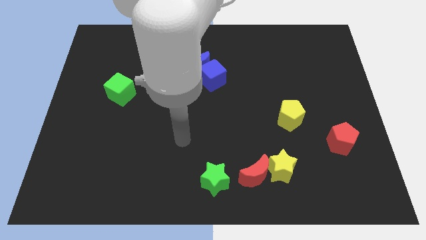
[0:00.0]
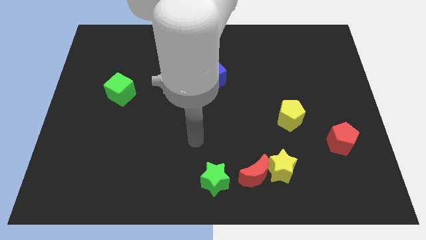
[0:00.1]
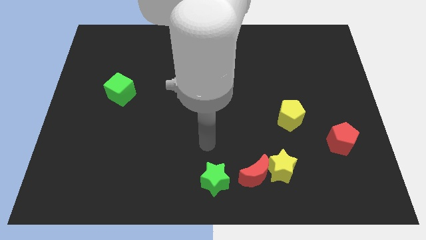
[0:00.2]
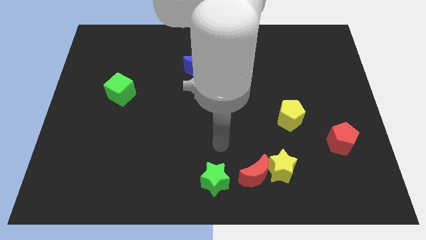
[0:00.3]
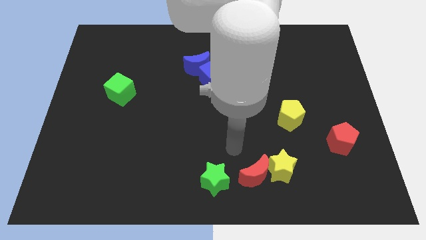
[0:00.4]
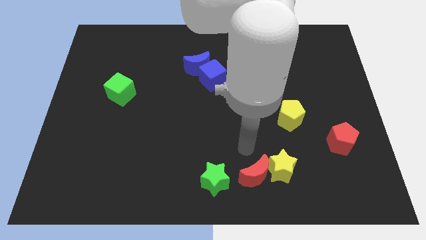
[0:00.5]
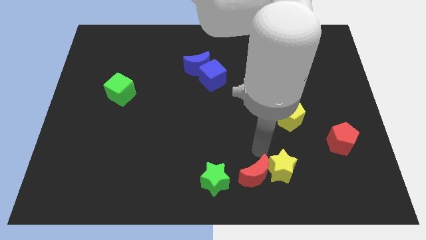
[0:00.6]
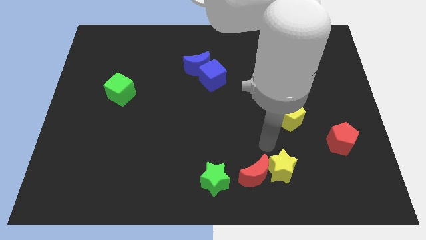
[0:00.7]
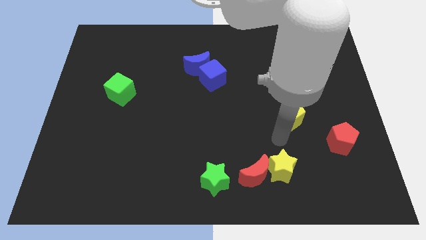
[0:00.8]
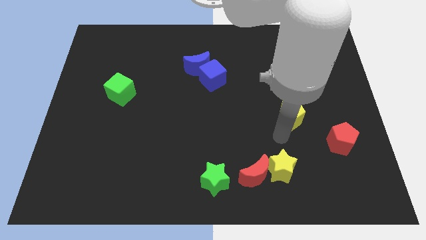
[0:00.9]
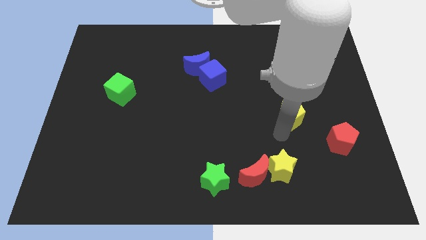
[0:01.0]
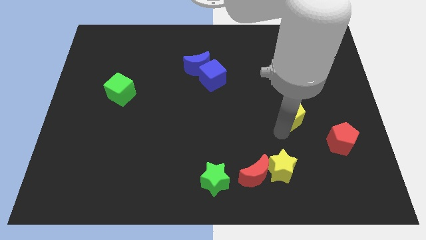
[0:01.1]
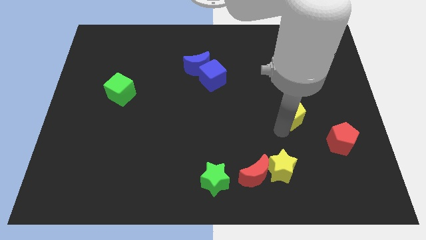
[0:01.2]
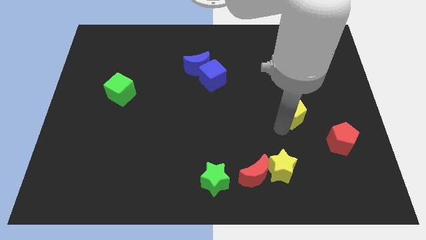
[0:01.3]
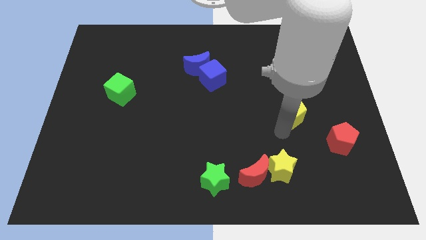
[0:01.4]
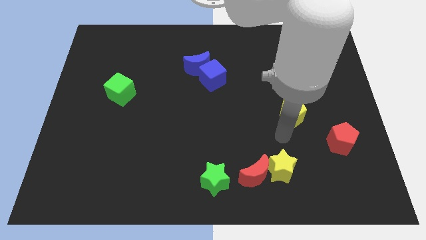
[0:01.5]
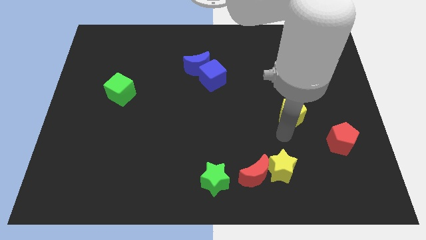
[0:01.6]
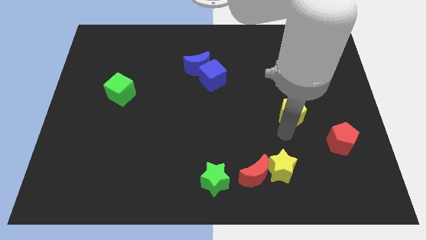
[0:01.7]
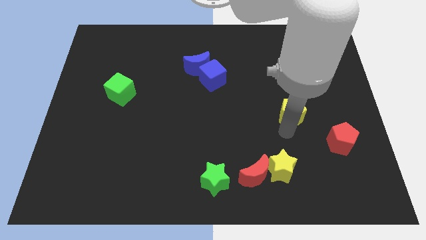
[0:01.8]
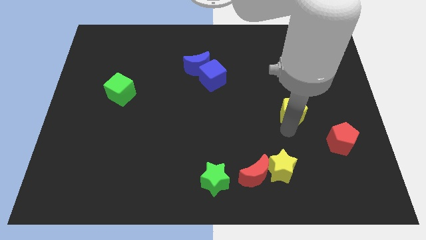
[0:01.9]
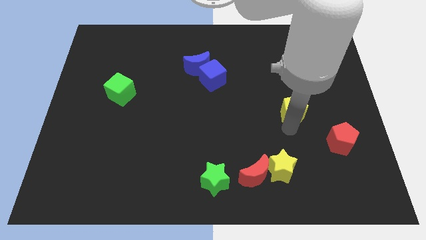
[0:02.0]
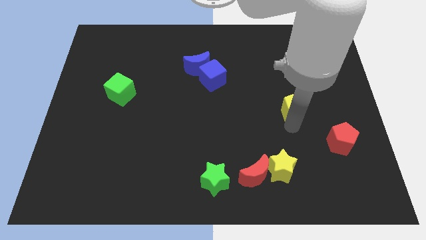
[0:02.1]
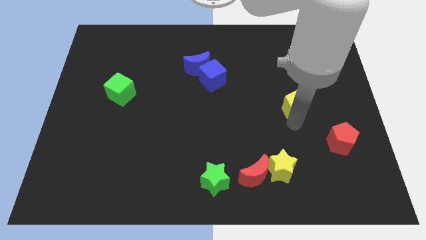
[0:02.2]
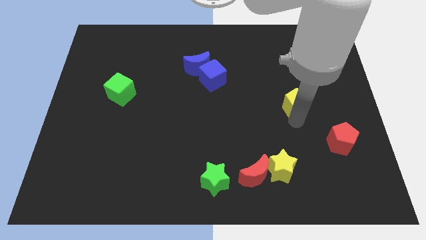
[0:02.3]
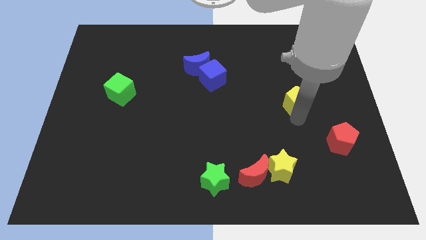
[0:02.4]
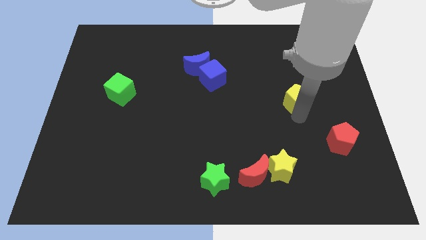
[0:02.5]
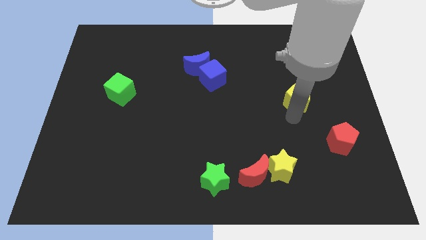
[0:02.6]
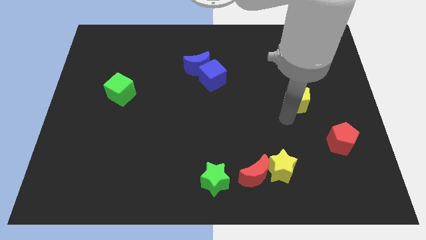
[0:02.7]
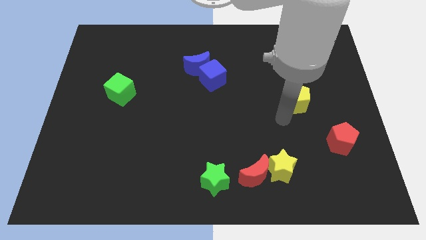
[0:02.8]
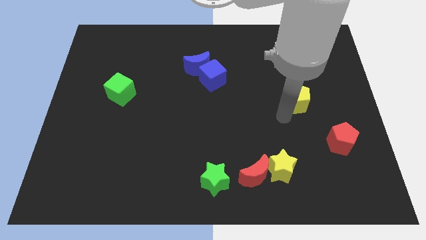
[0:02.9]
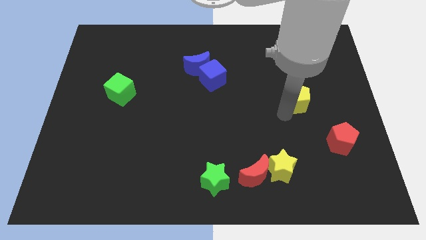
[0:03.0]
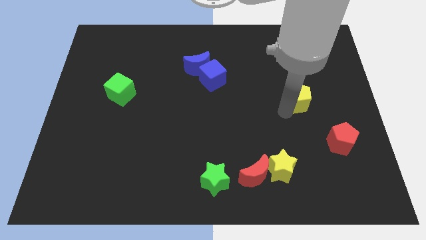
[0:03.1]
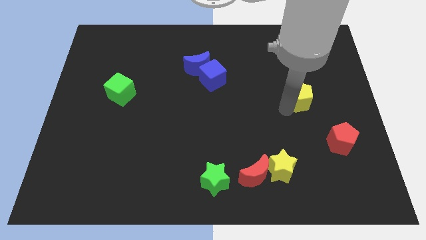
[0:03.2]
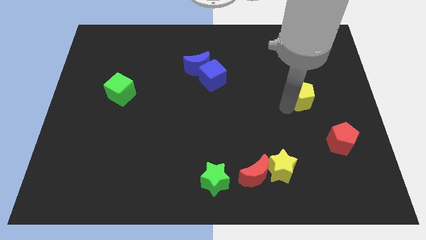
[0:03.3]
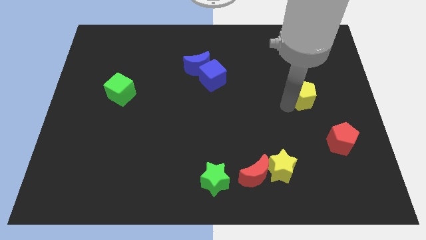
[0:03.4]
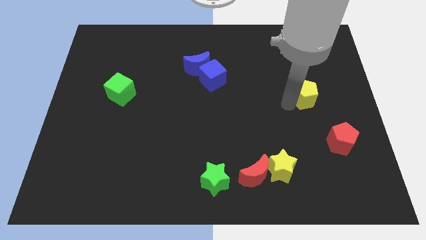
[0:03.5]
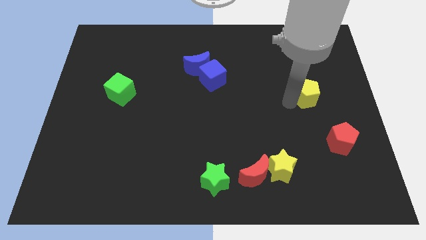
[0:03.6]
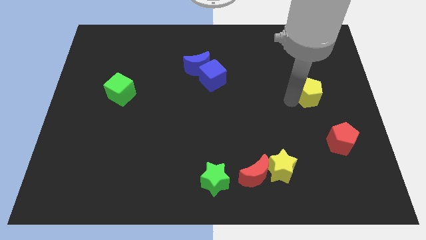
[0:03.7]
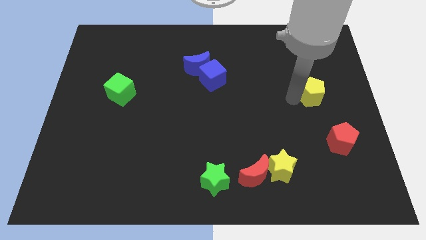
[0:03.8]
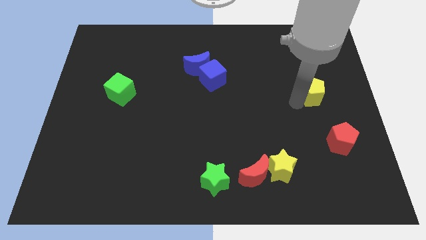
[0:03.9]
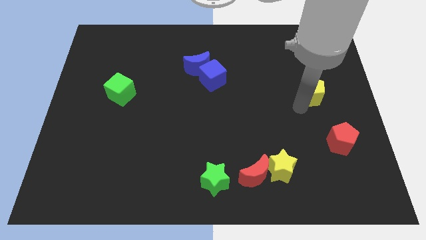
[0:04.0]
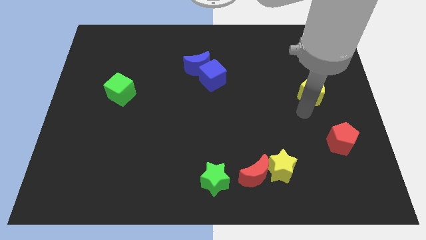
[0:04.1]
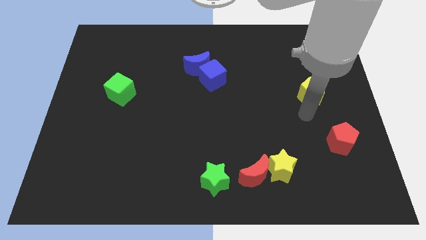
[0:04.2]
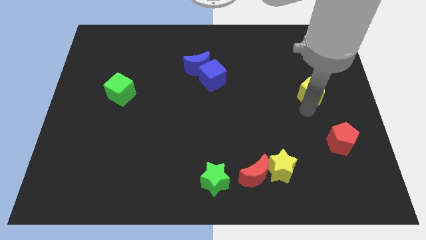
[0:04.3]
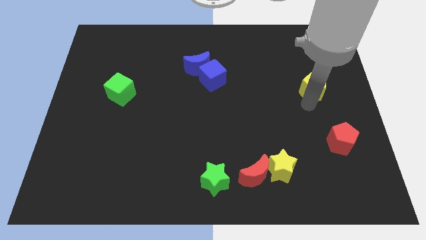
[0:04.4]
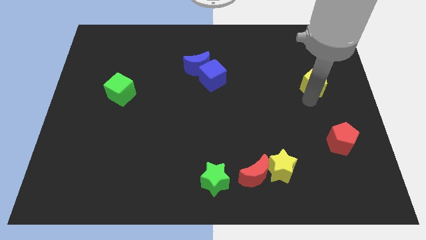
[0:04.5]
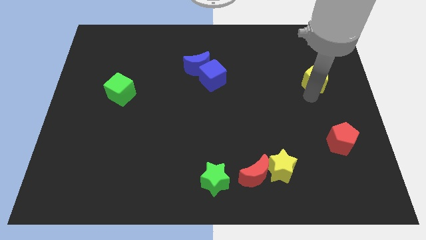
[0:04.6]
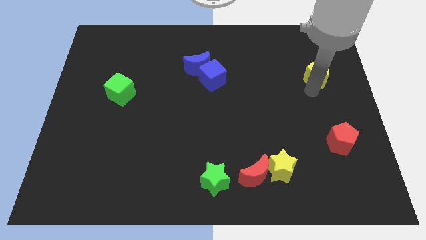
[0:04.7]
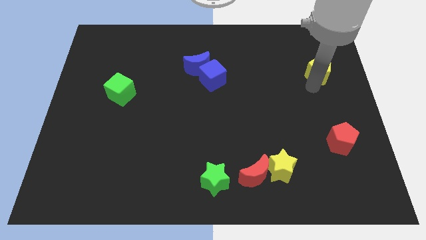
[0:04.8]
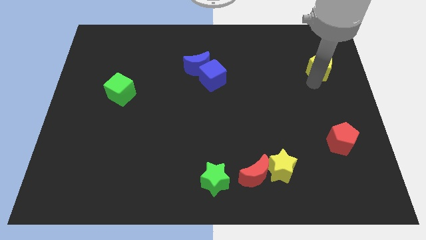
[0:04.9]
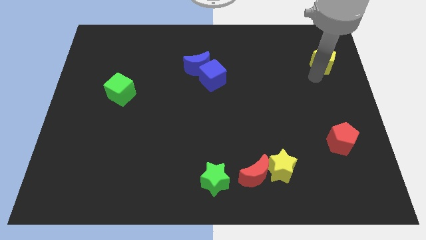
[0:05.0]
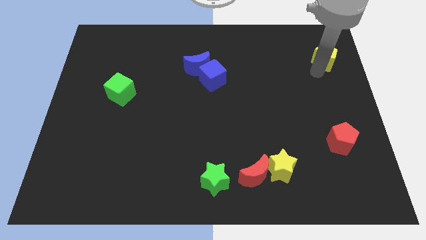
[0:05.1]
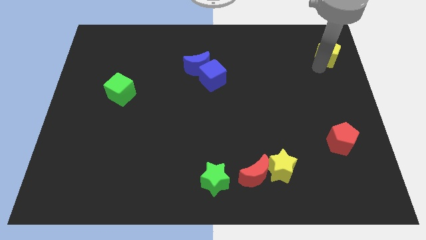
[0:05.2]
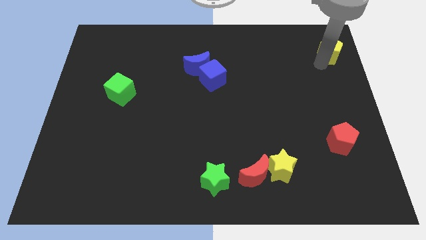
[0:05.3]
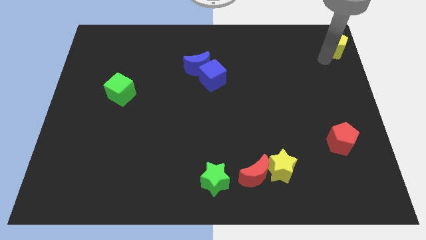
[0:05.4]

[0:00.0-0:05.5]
put the yellow pentagon to the top right corner

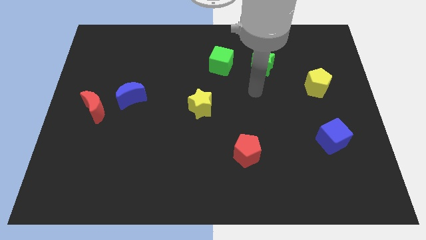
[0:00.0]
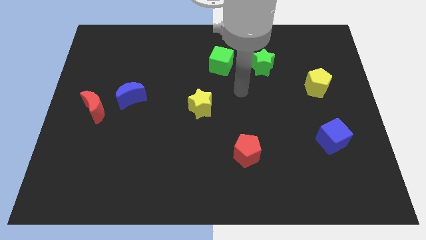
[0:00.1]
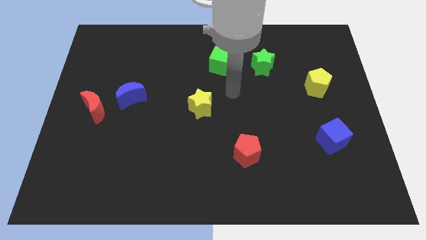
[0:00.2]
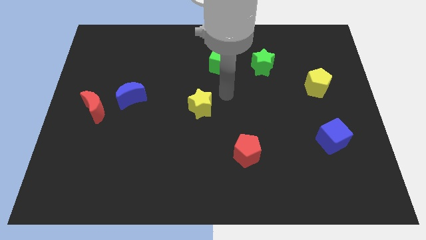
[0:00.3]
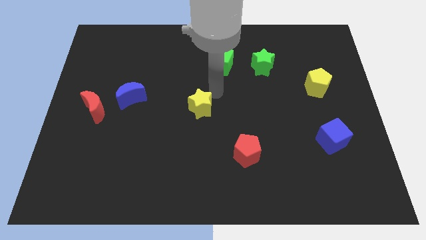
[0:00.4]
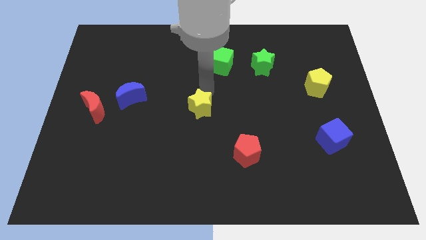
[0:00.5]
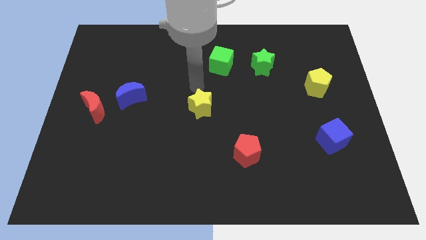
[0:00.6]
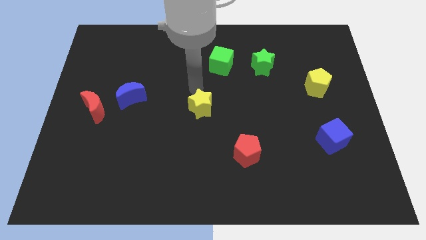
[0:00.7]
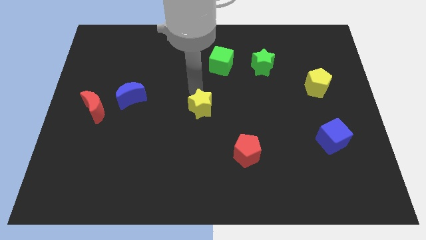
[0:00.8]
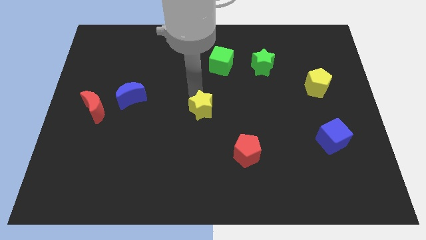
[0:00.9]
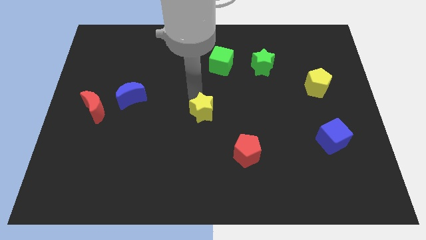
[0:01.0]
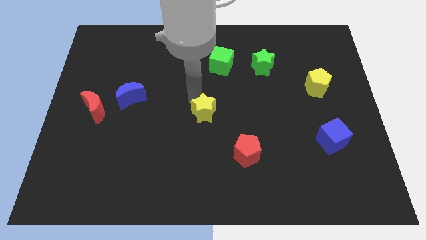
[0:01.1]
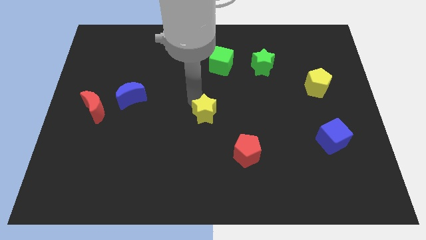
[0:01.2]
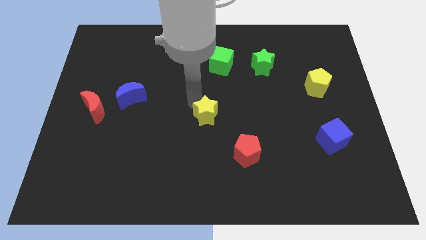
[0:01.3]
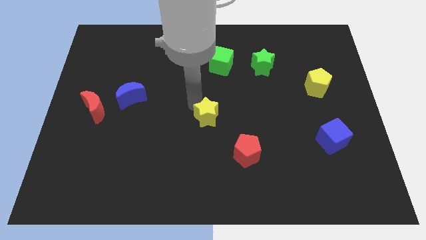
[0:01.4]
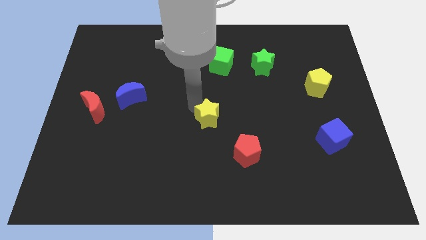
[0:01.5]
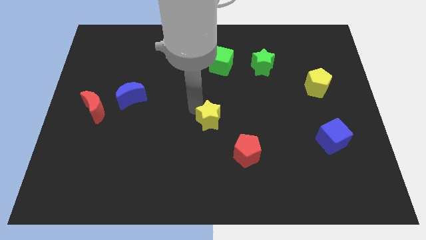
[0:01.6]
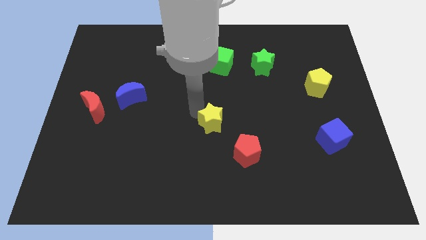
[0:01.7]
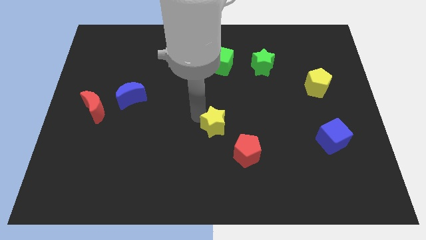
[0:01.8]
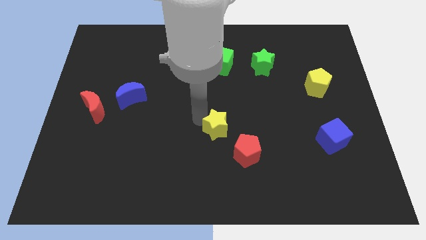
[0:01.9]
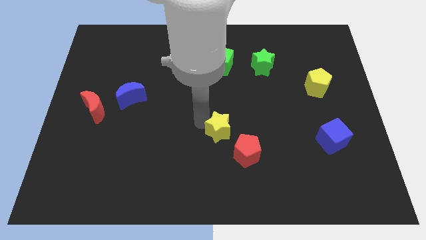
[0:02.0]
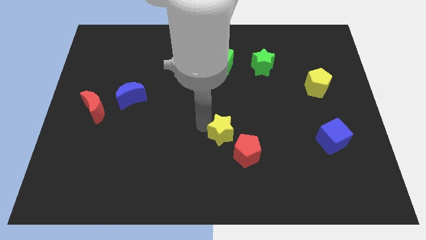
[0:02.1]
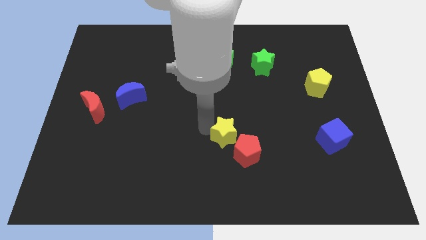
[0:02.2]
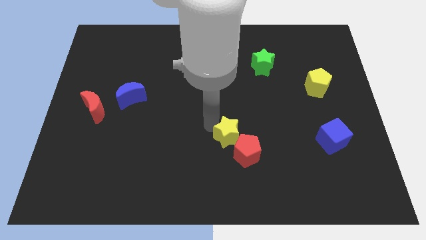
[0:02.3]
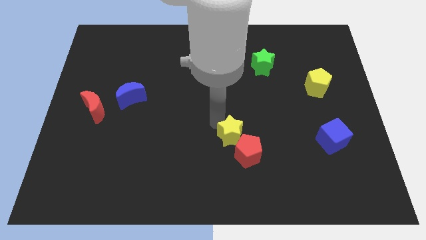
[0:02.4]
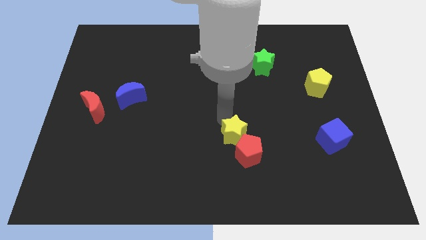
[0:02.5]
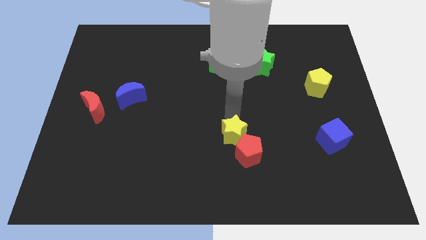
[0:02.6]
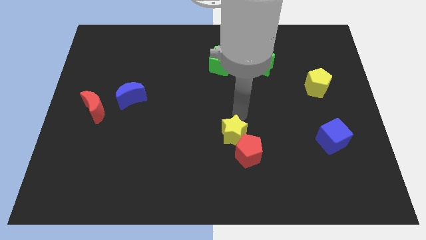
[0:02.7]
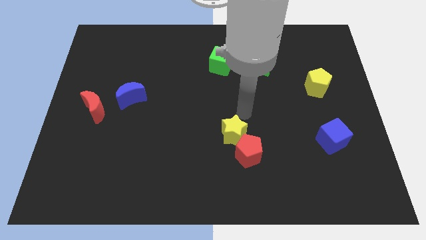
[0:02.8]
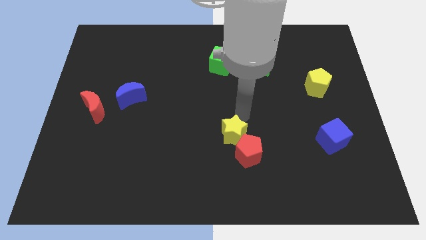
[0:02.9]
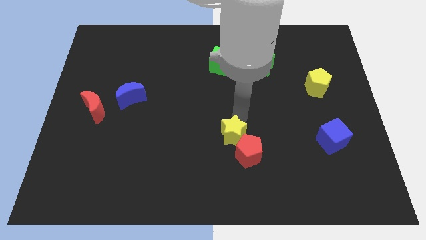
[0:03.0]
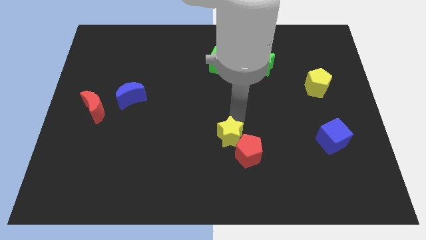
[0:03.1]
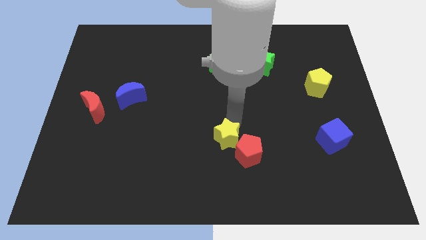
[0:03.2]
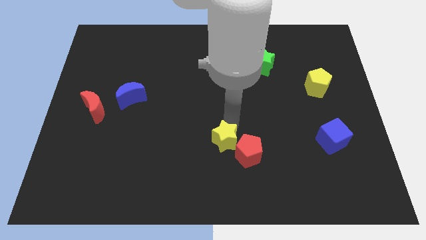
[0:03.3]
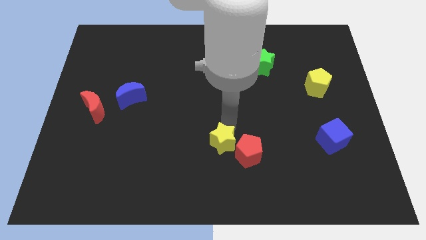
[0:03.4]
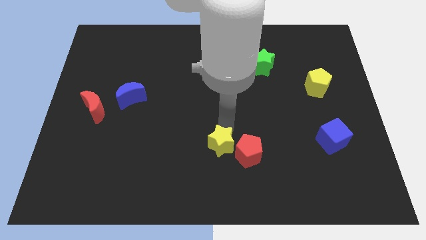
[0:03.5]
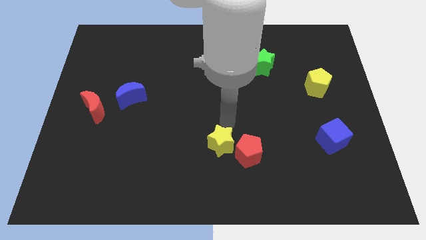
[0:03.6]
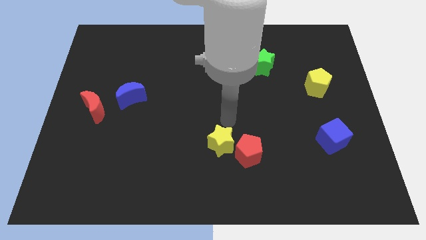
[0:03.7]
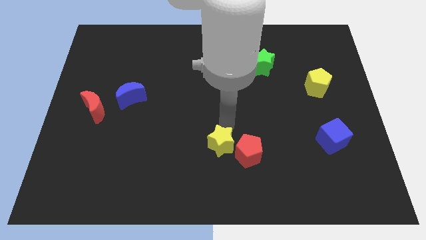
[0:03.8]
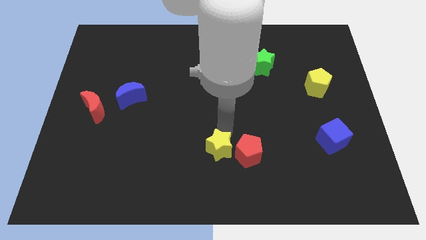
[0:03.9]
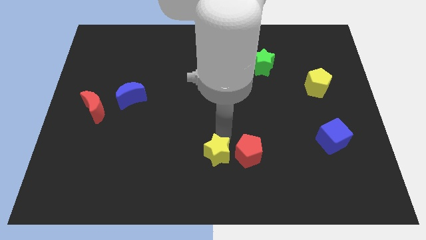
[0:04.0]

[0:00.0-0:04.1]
push the yellow star to the bottom side
